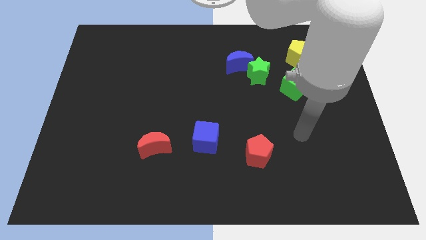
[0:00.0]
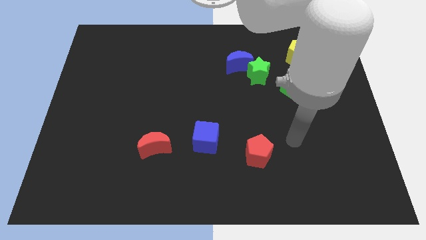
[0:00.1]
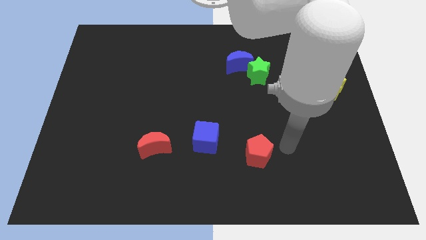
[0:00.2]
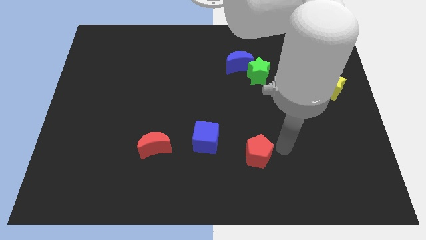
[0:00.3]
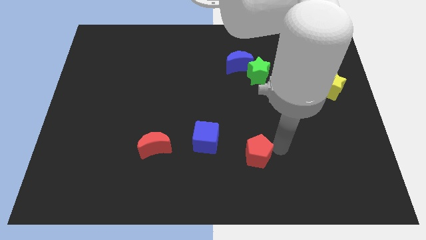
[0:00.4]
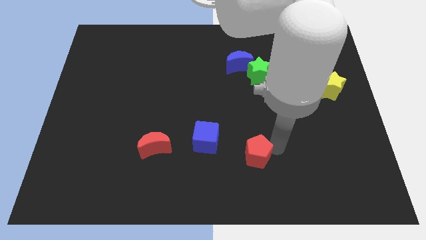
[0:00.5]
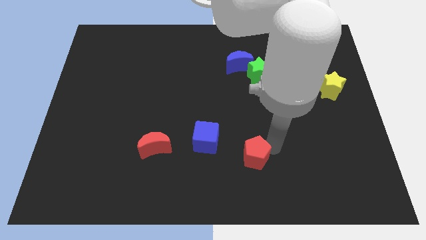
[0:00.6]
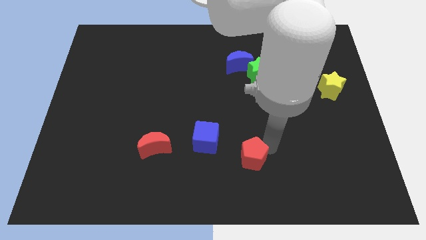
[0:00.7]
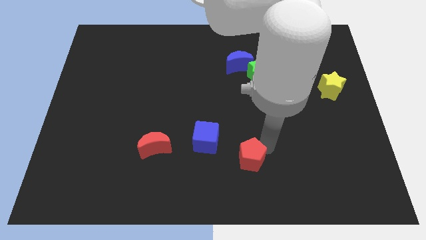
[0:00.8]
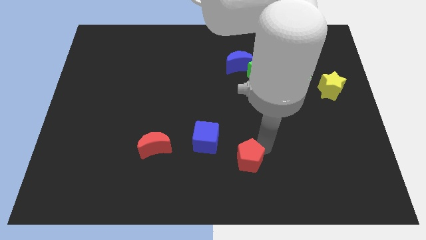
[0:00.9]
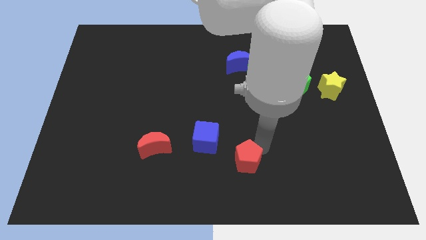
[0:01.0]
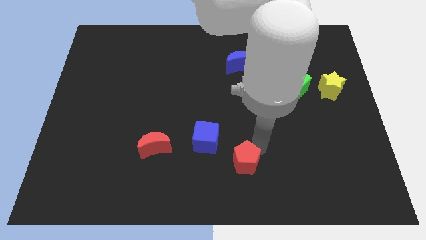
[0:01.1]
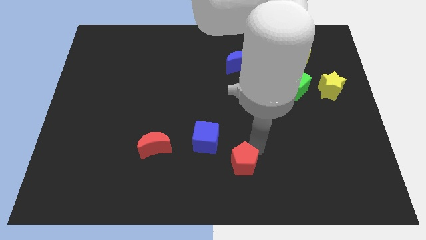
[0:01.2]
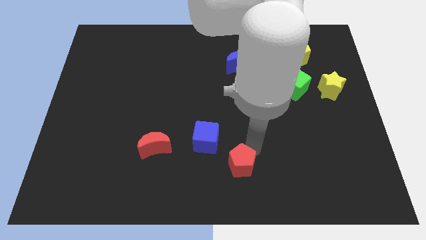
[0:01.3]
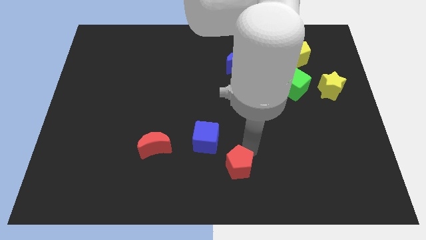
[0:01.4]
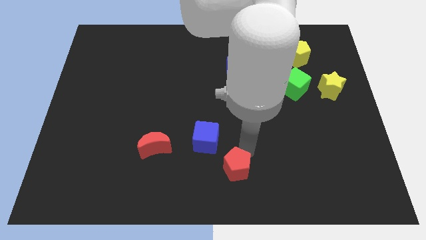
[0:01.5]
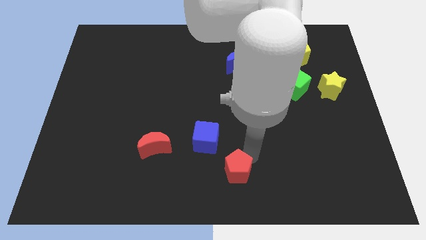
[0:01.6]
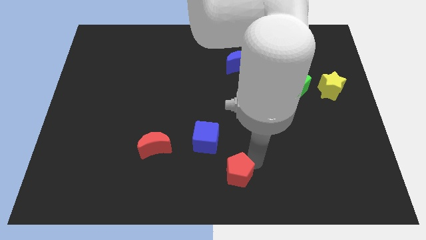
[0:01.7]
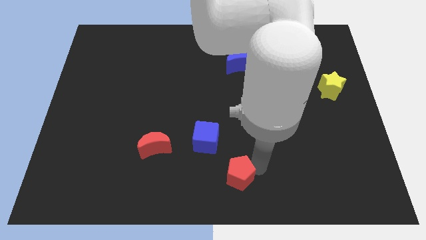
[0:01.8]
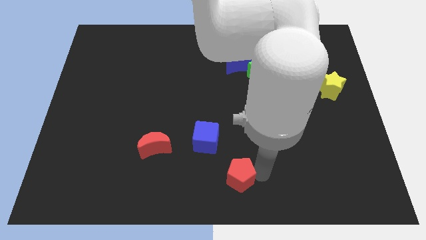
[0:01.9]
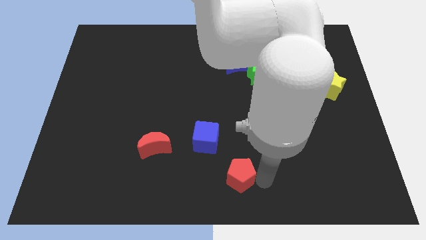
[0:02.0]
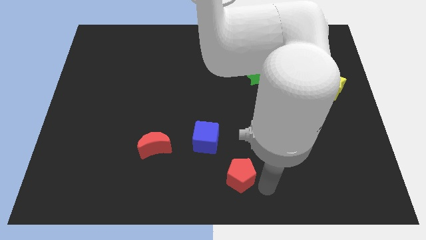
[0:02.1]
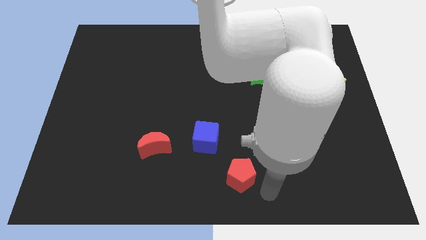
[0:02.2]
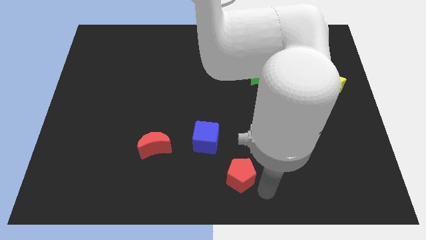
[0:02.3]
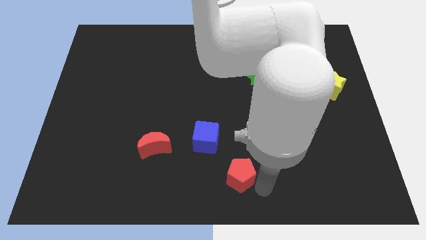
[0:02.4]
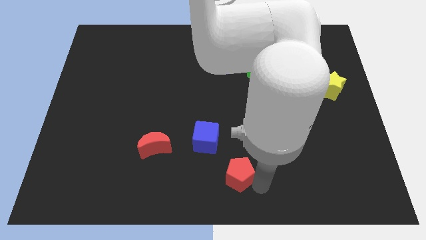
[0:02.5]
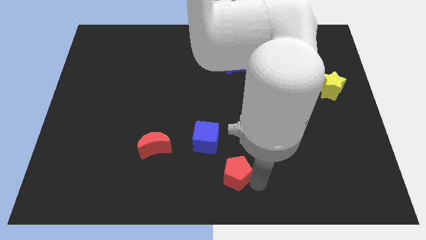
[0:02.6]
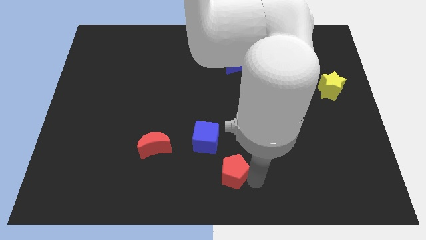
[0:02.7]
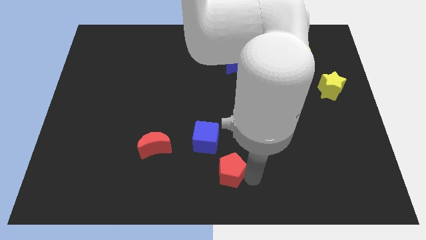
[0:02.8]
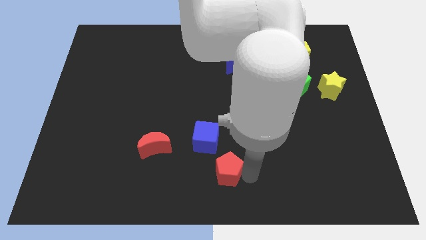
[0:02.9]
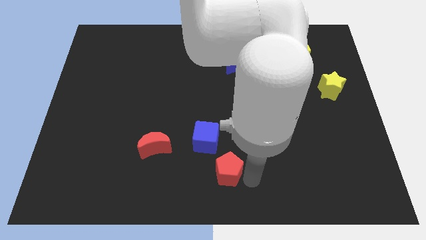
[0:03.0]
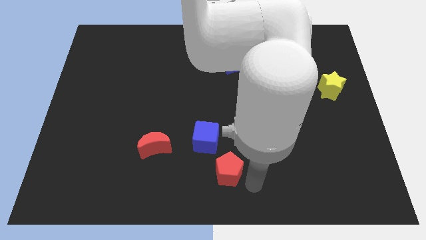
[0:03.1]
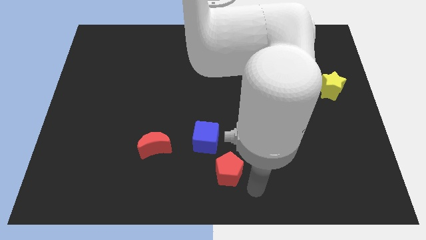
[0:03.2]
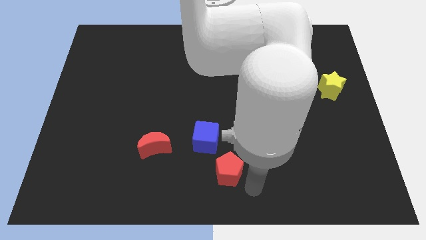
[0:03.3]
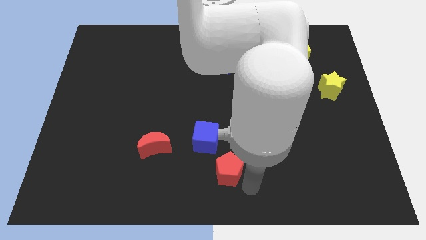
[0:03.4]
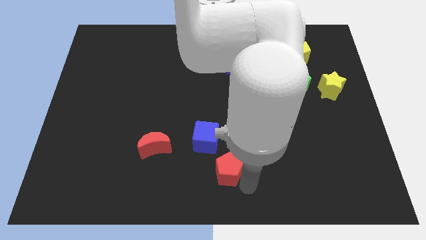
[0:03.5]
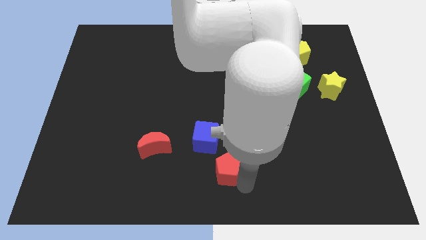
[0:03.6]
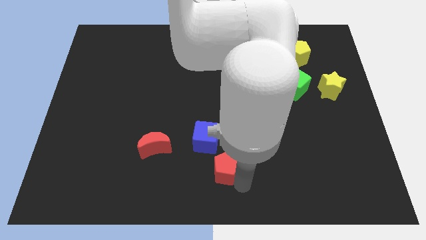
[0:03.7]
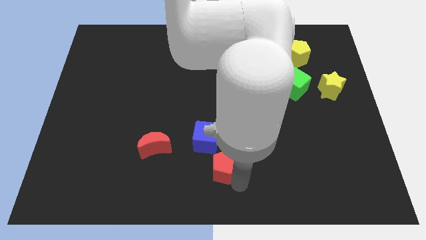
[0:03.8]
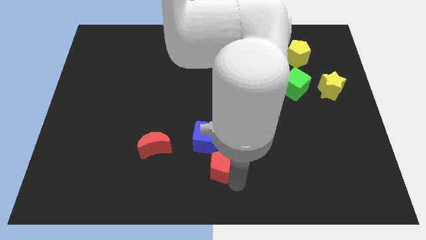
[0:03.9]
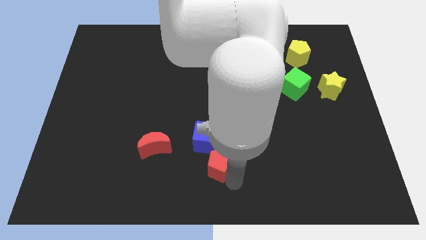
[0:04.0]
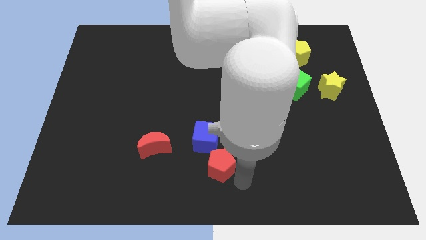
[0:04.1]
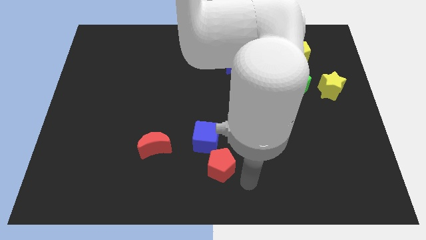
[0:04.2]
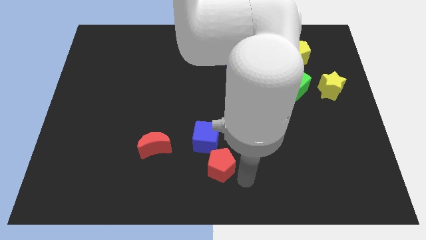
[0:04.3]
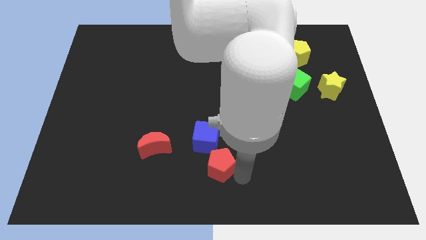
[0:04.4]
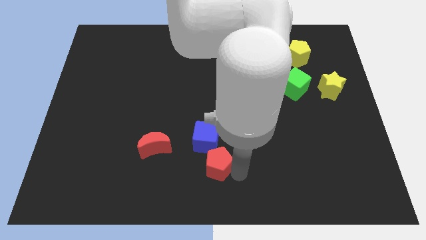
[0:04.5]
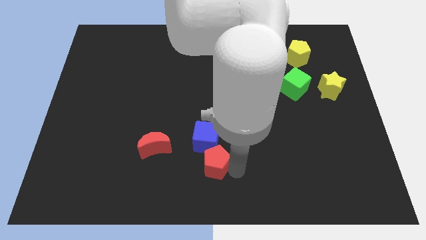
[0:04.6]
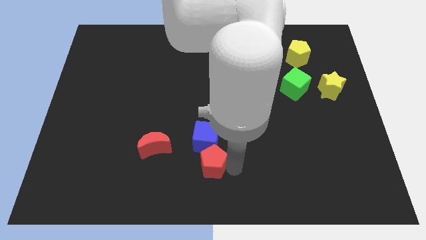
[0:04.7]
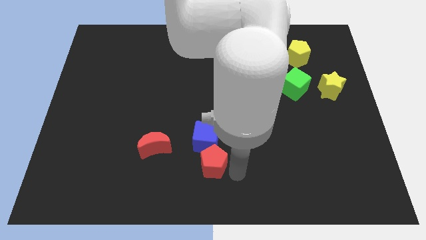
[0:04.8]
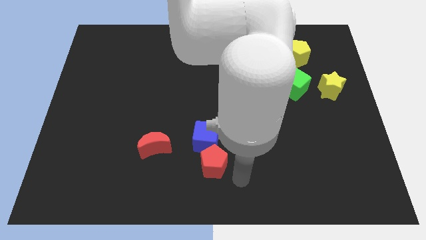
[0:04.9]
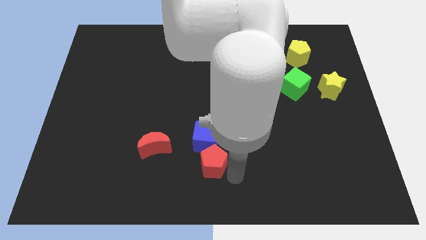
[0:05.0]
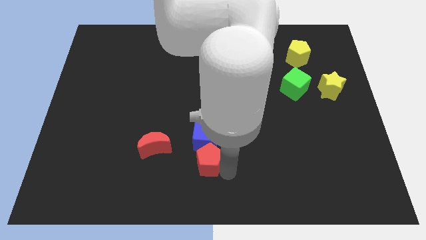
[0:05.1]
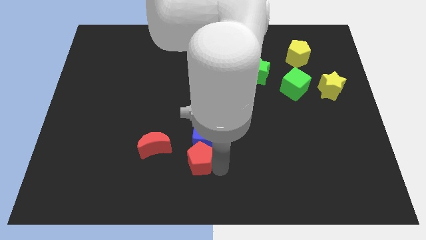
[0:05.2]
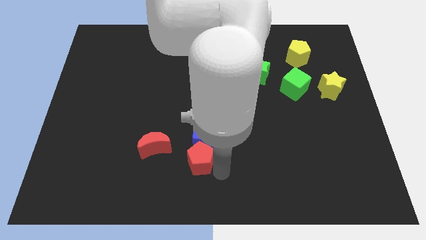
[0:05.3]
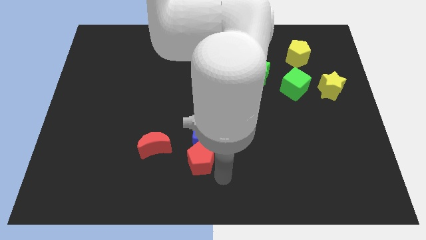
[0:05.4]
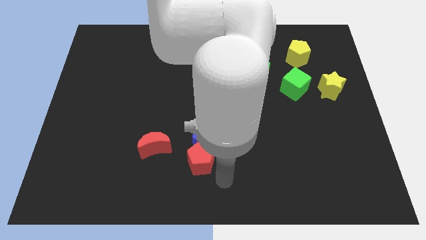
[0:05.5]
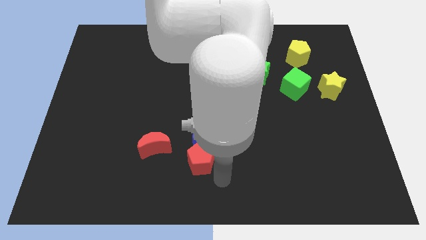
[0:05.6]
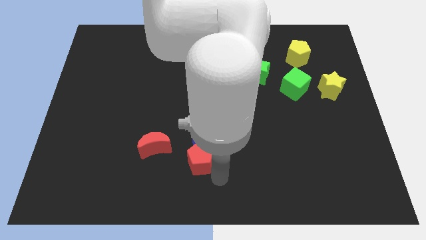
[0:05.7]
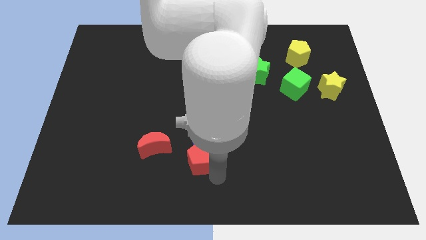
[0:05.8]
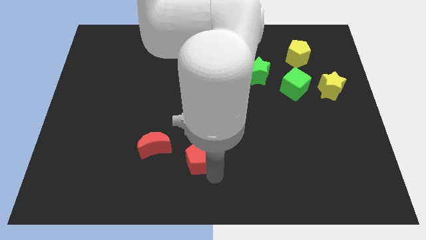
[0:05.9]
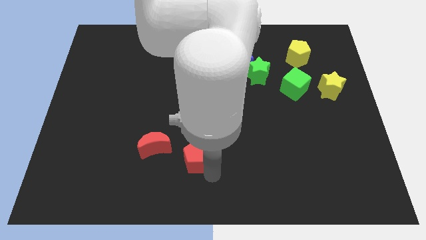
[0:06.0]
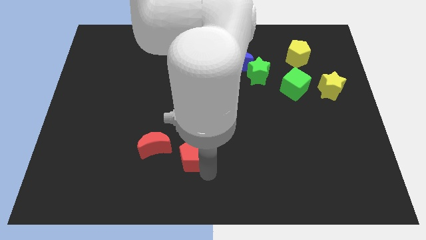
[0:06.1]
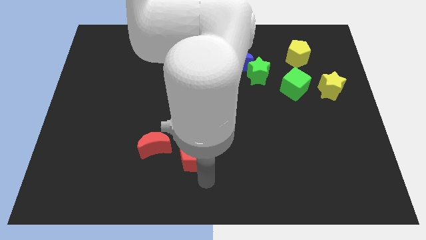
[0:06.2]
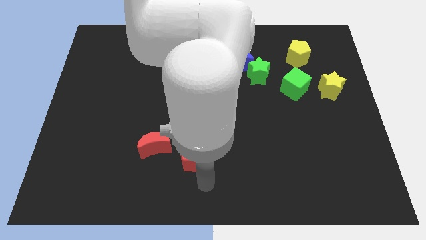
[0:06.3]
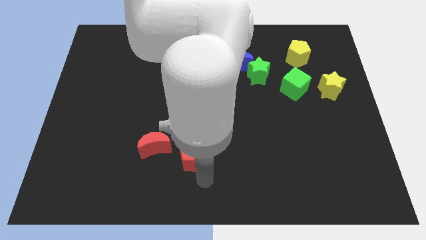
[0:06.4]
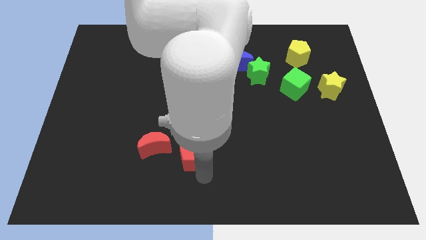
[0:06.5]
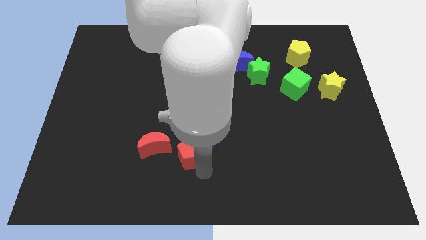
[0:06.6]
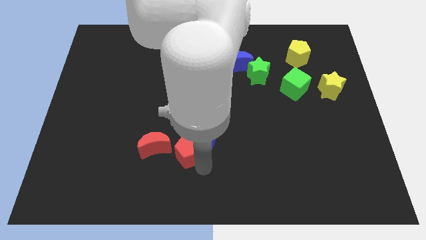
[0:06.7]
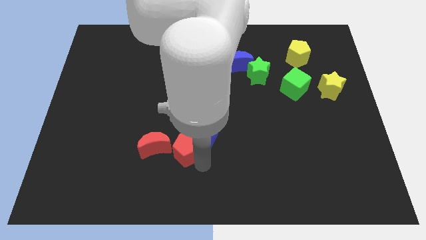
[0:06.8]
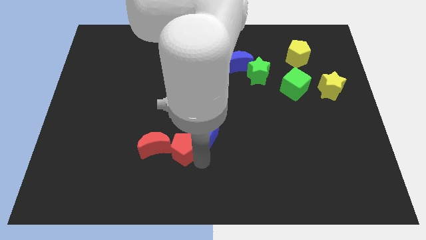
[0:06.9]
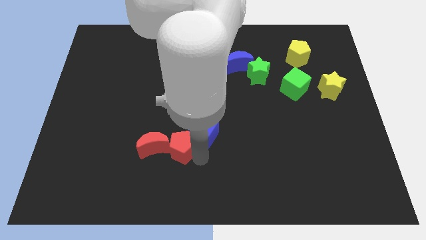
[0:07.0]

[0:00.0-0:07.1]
move the red pentagon to the top right side of the red moon

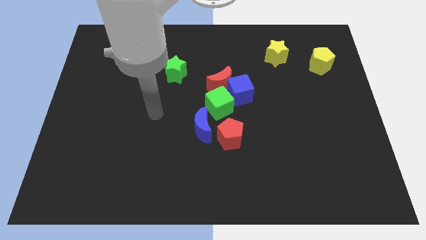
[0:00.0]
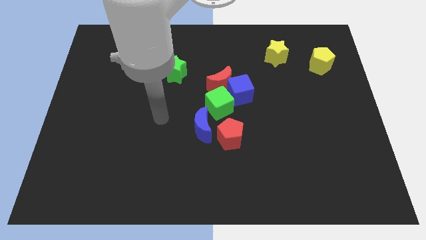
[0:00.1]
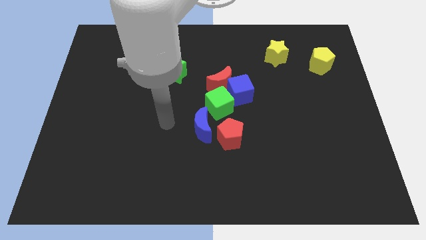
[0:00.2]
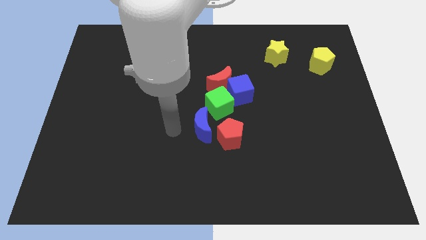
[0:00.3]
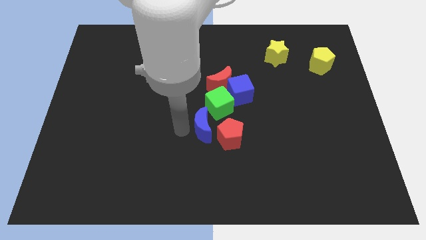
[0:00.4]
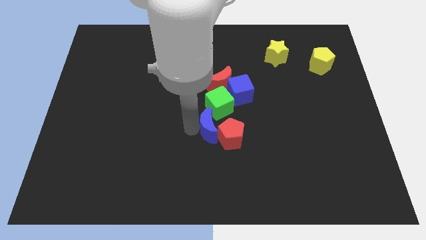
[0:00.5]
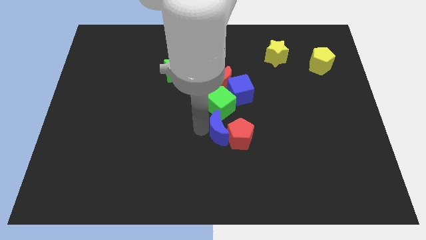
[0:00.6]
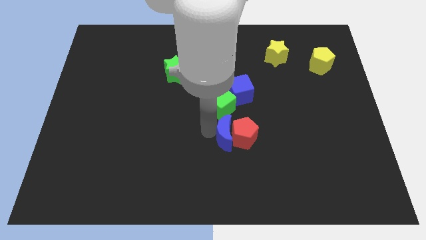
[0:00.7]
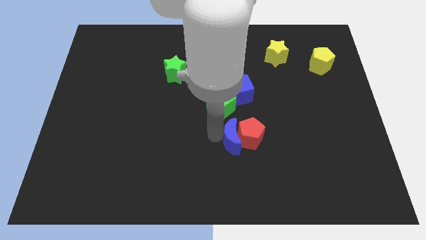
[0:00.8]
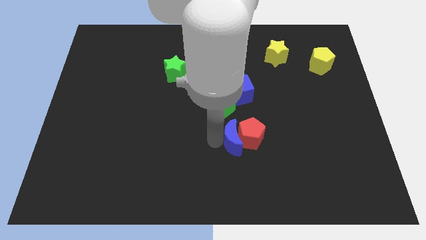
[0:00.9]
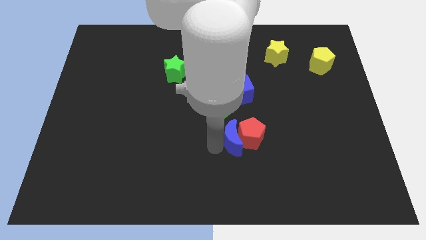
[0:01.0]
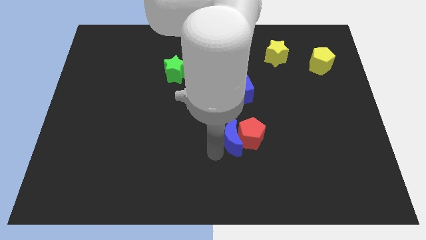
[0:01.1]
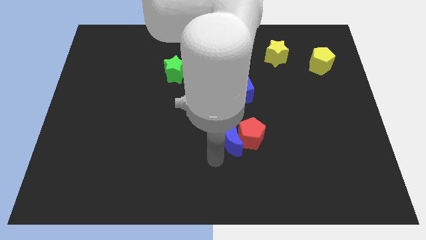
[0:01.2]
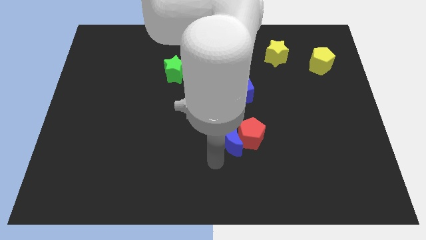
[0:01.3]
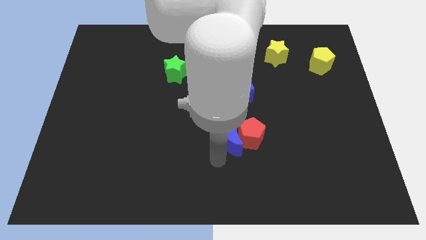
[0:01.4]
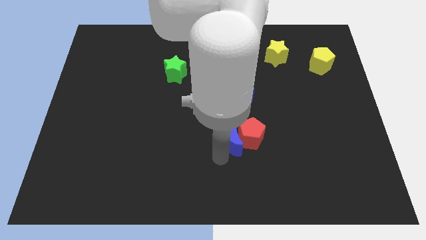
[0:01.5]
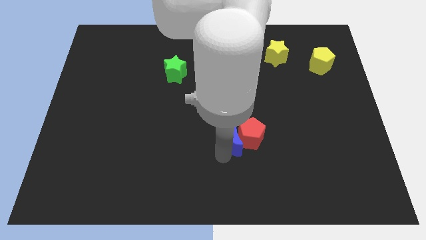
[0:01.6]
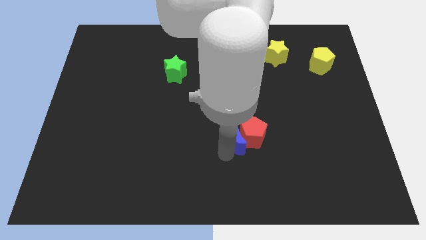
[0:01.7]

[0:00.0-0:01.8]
slide the blue moon to the bottom right of the green cube
